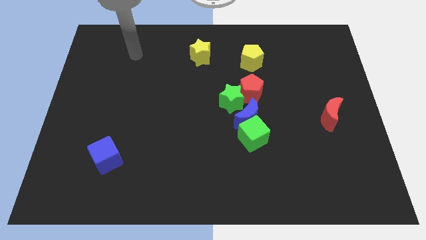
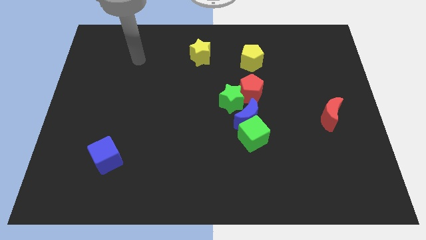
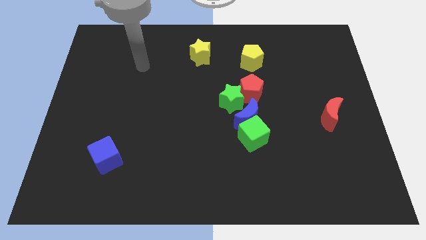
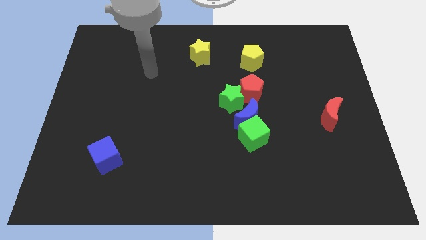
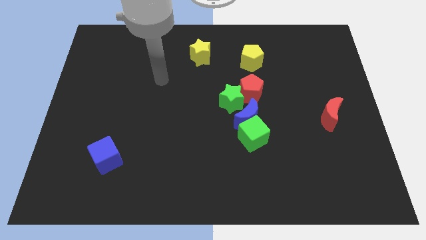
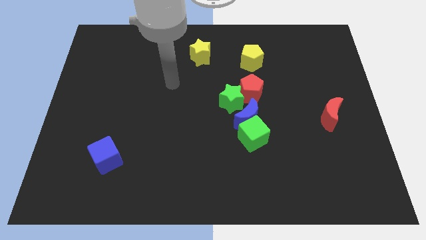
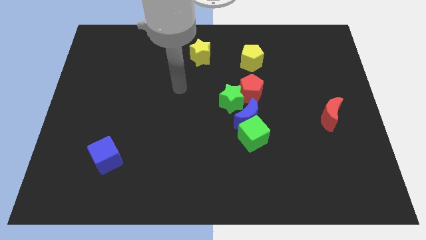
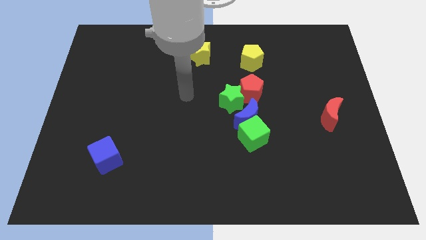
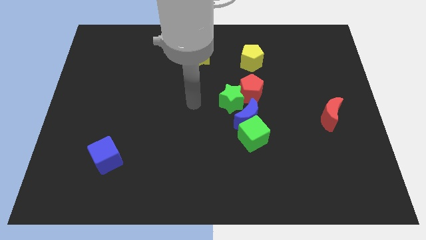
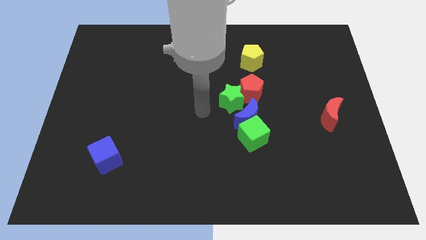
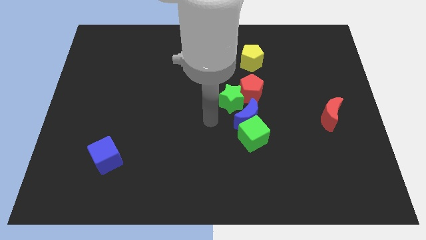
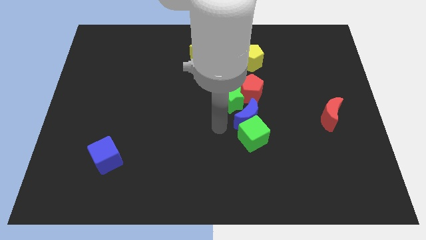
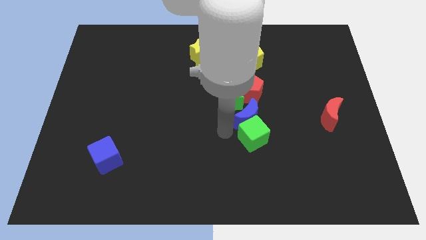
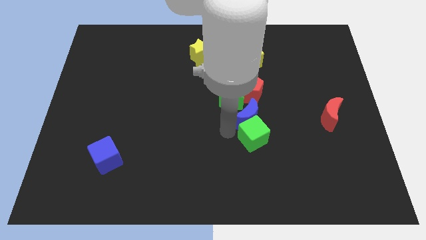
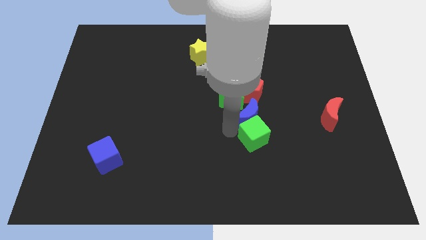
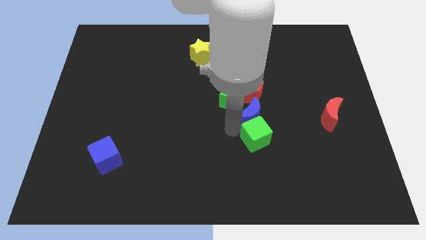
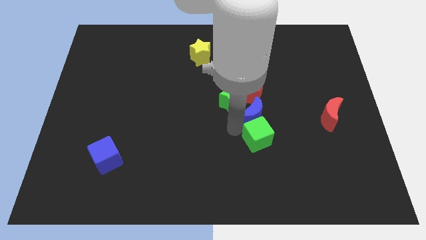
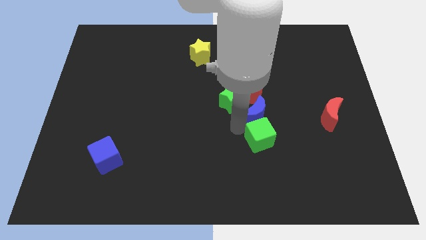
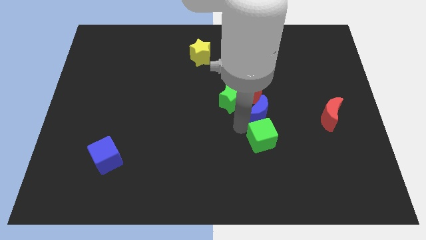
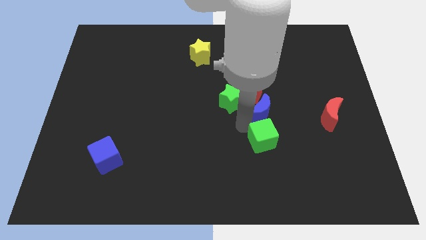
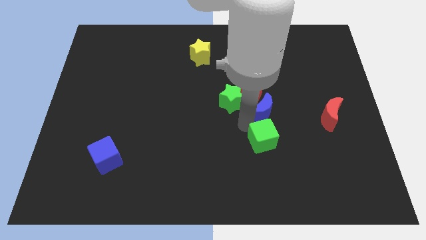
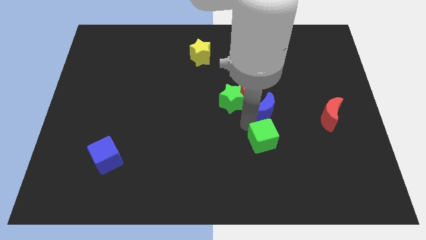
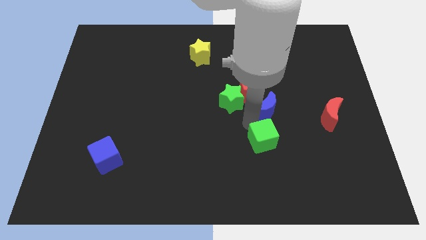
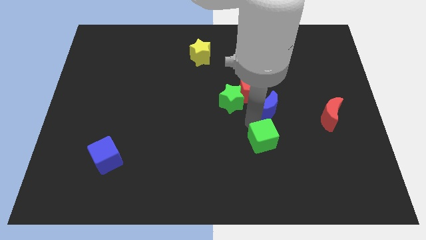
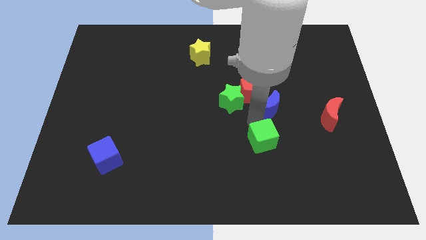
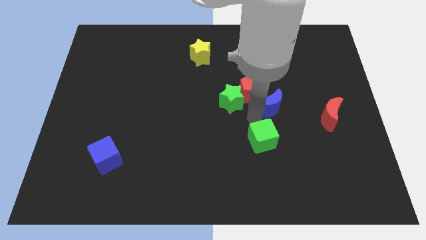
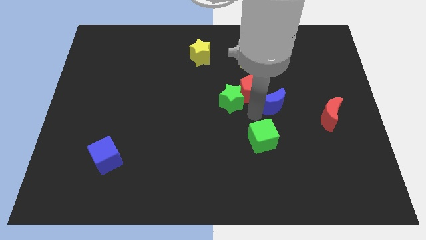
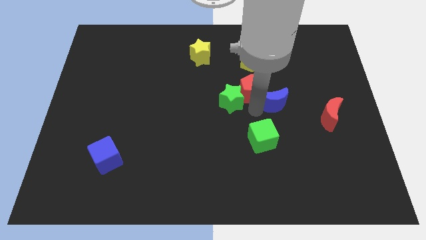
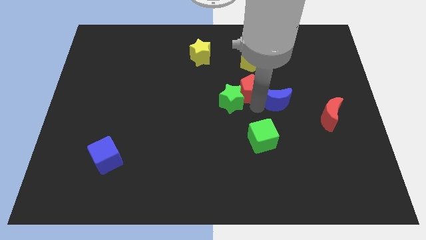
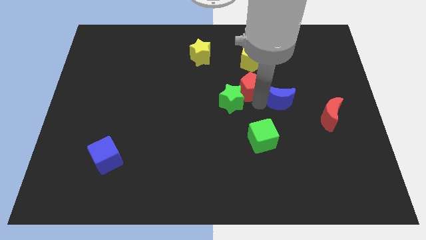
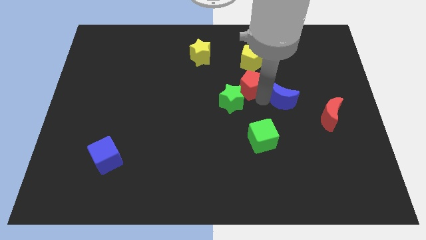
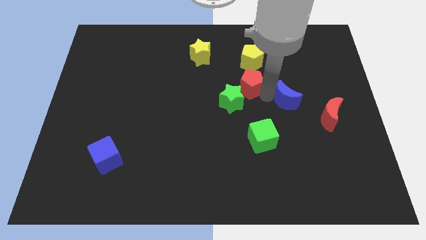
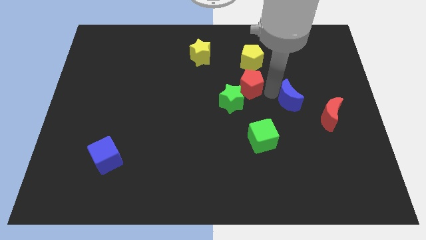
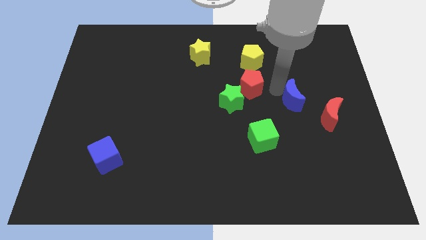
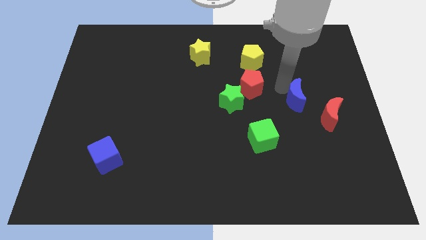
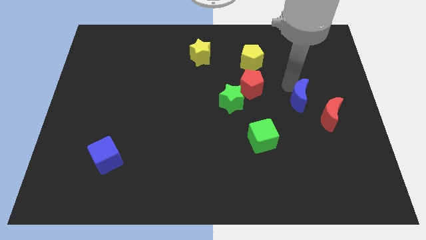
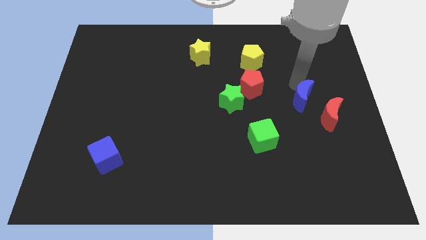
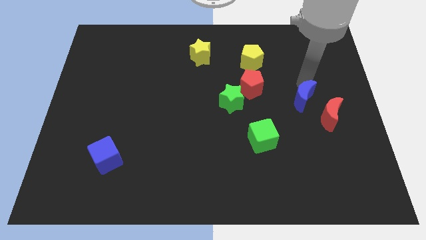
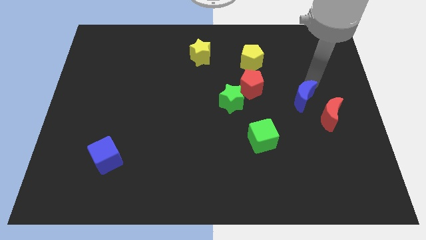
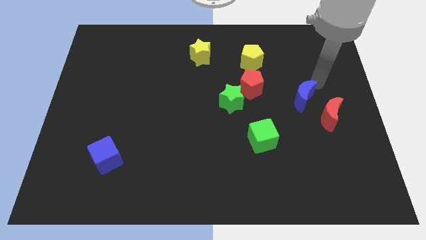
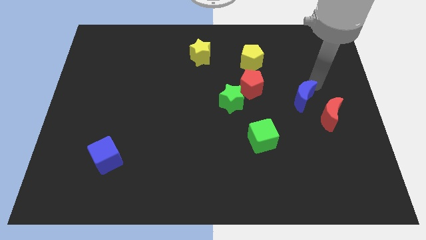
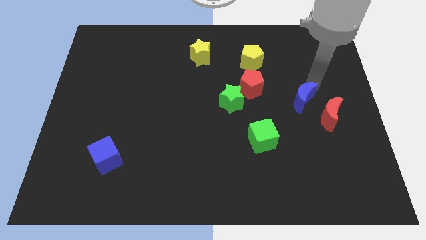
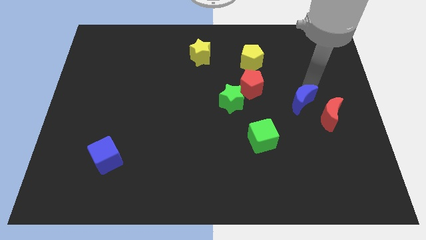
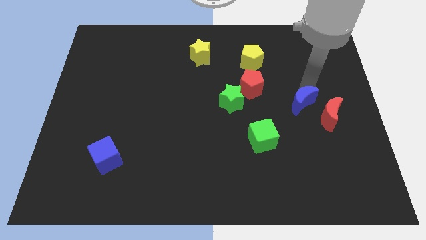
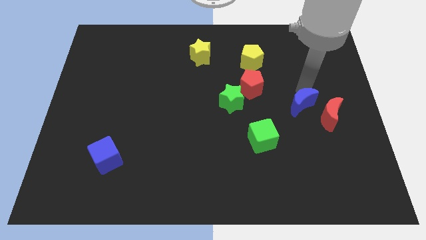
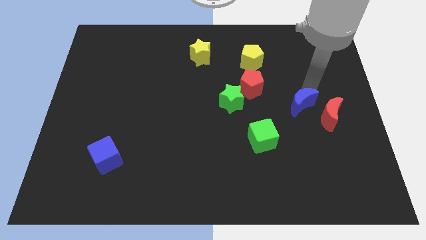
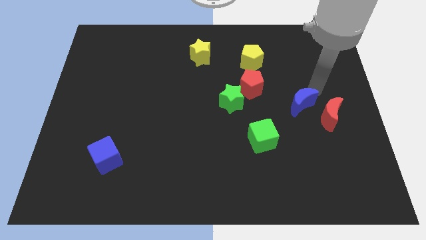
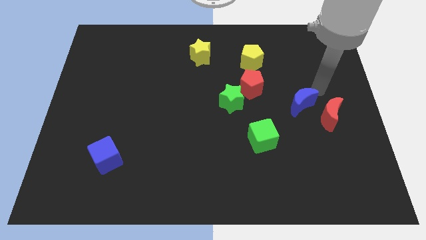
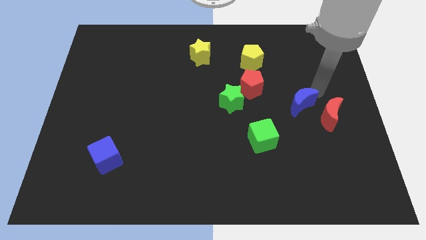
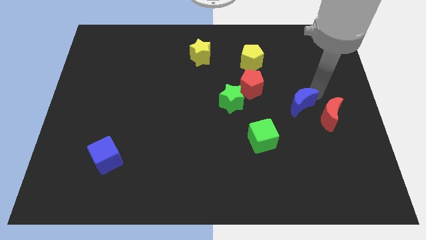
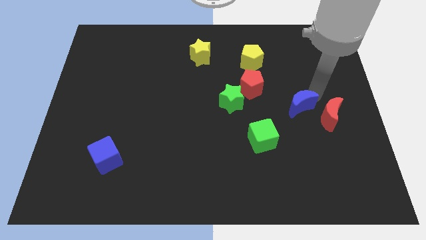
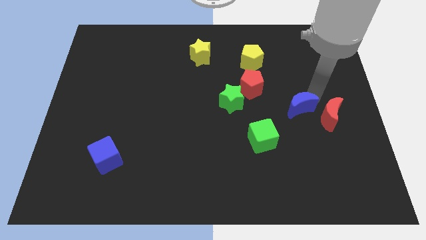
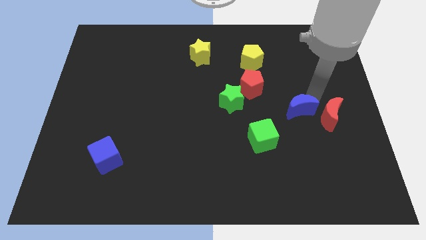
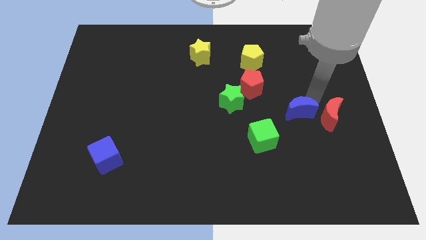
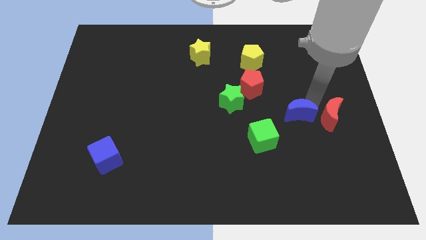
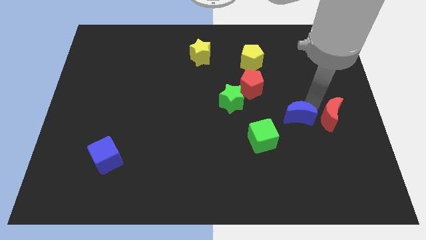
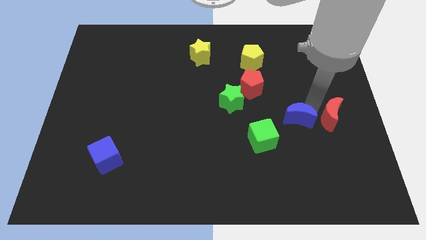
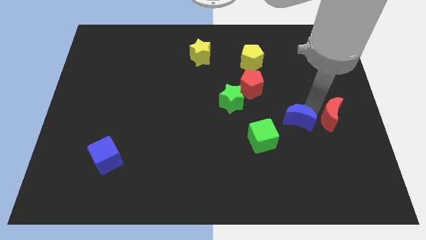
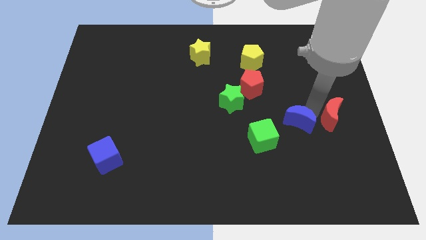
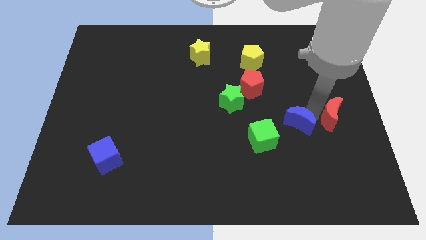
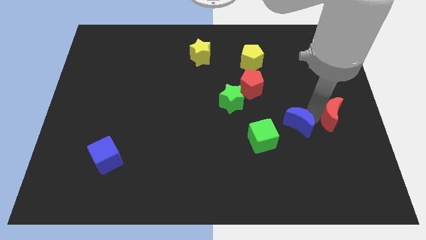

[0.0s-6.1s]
slightly move the blue moon diagonally downwards and to the right

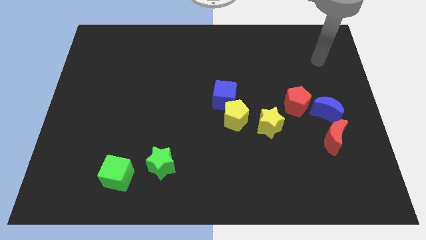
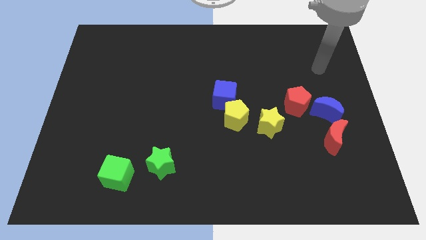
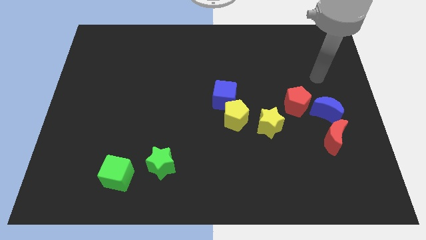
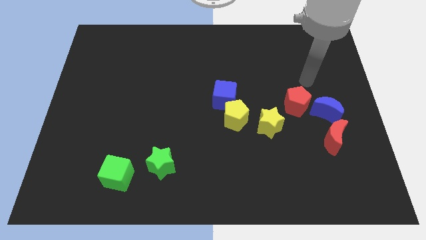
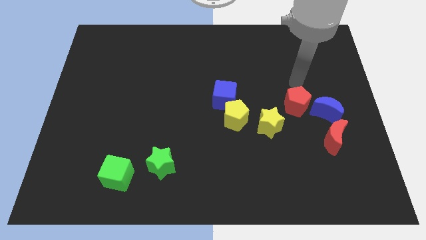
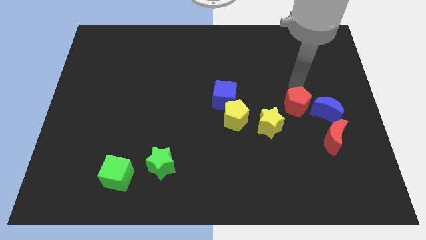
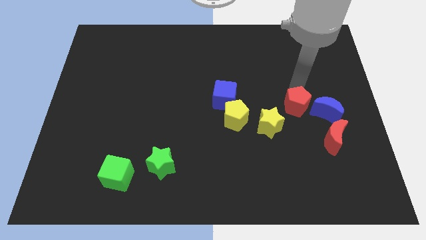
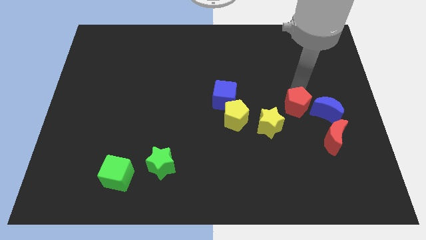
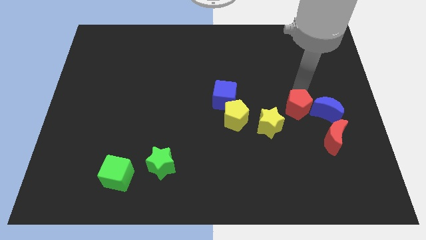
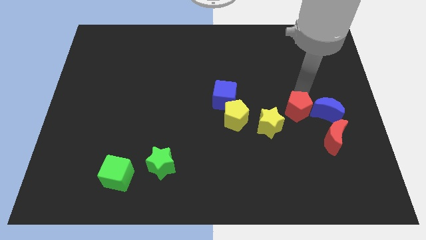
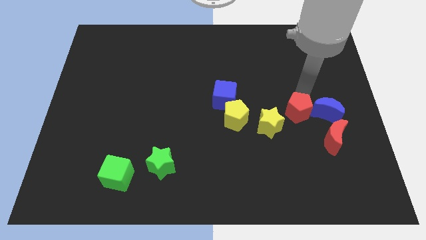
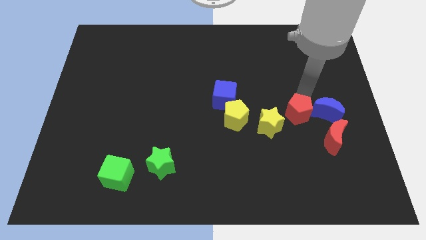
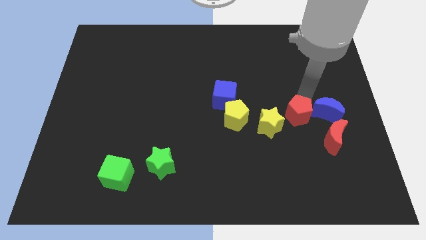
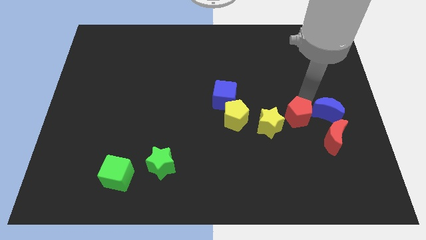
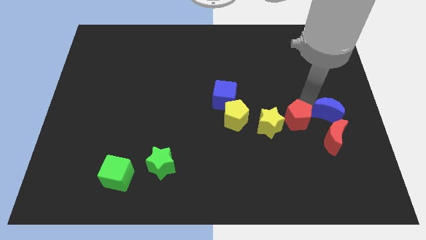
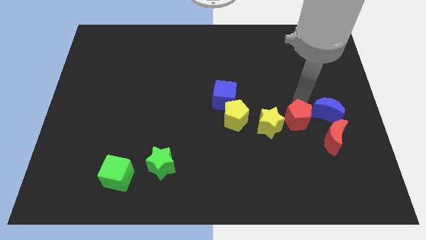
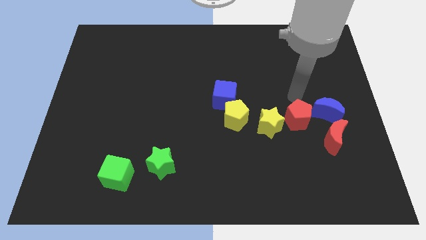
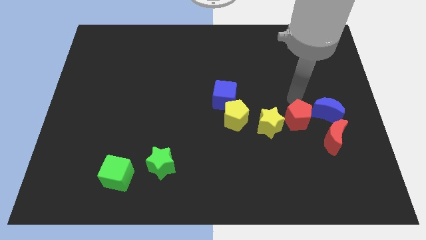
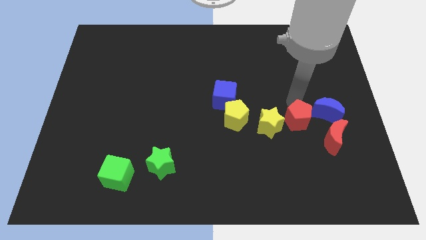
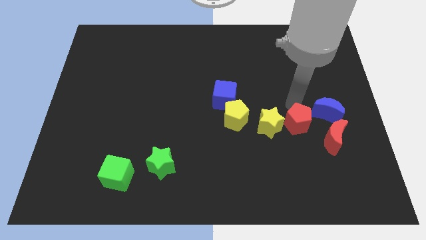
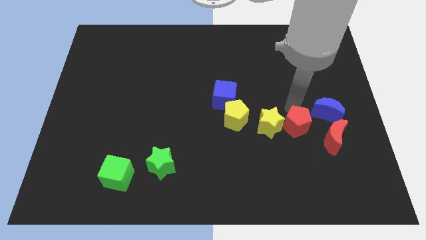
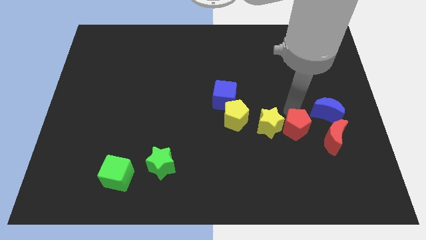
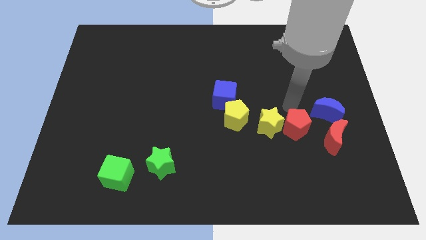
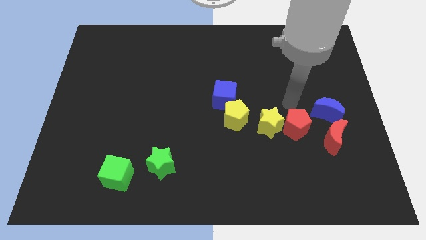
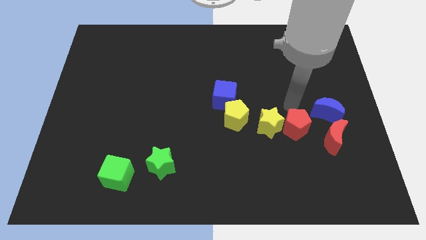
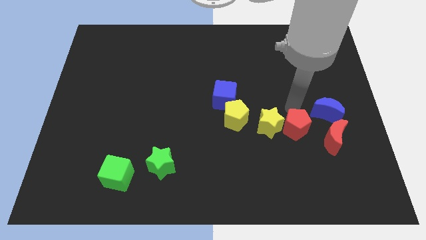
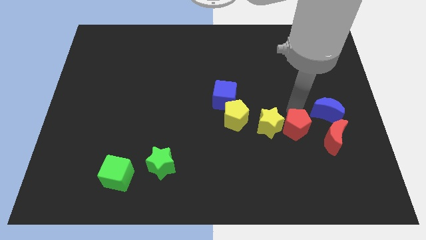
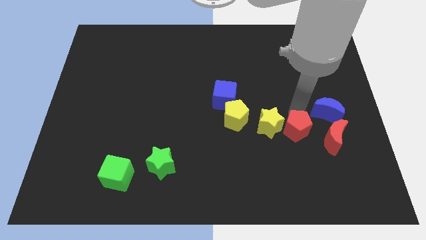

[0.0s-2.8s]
push the red pentagon downwards somewhat
